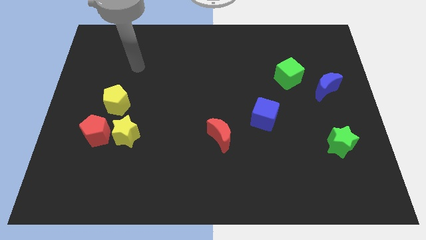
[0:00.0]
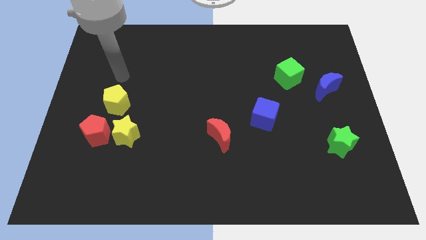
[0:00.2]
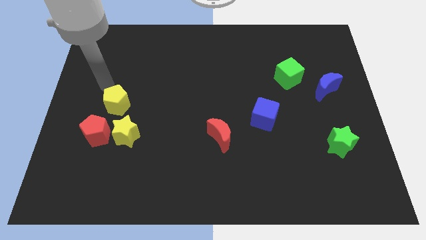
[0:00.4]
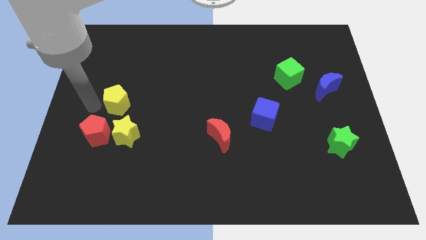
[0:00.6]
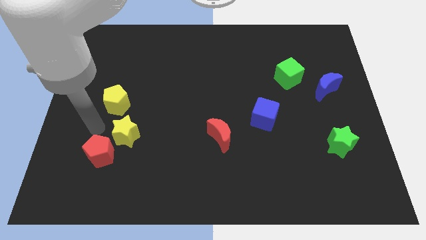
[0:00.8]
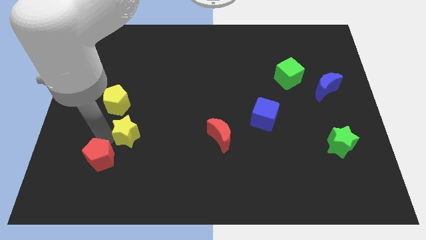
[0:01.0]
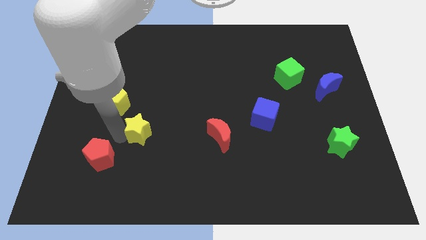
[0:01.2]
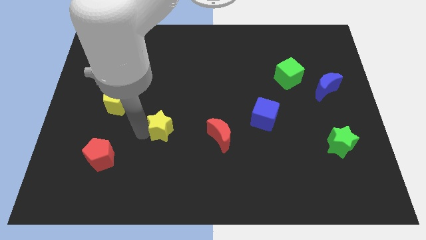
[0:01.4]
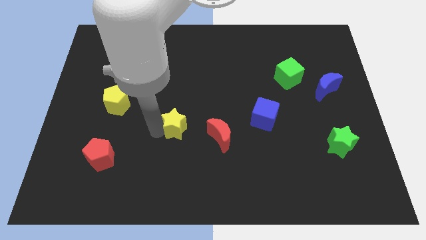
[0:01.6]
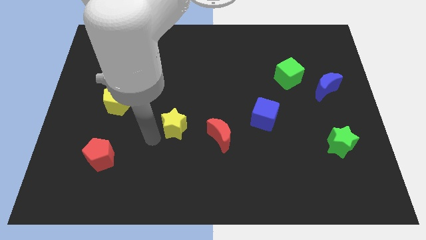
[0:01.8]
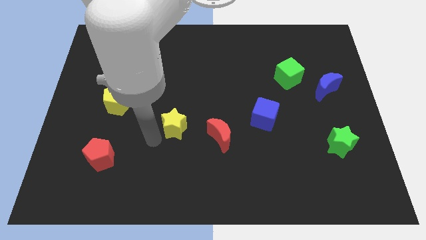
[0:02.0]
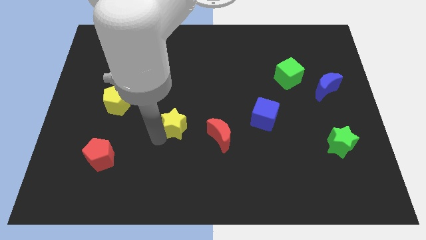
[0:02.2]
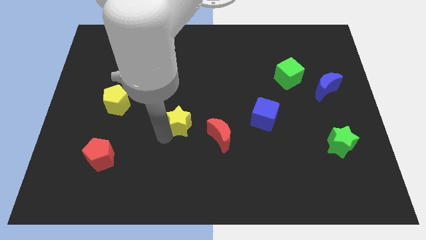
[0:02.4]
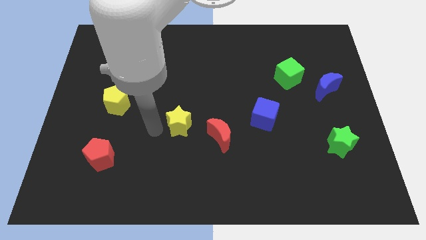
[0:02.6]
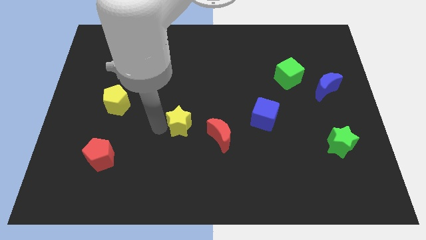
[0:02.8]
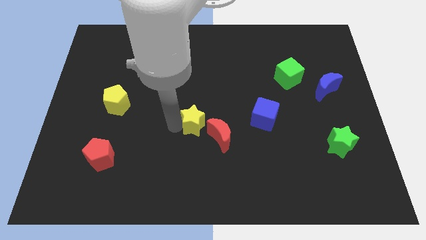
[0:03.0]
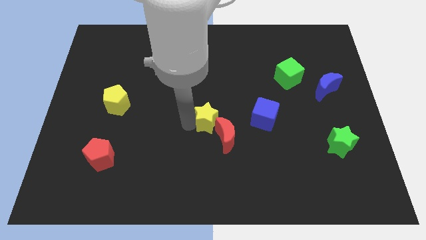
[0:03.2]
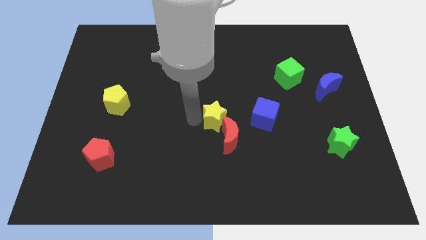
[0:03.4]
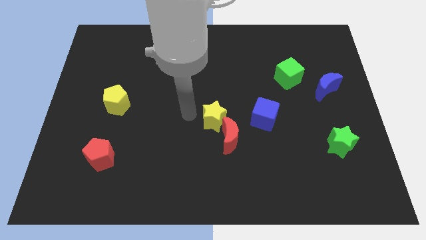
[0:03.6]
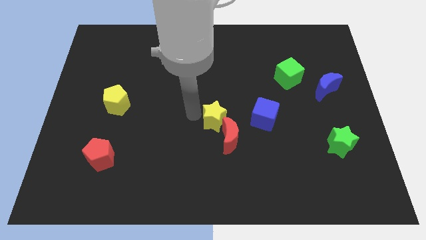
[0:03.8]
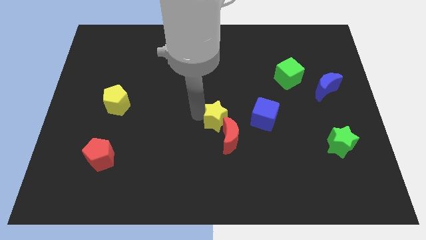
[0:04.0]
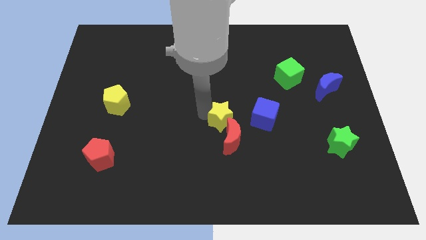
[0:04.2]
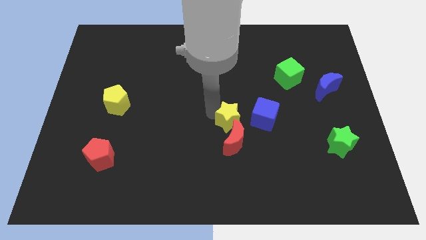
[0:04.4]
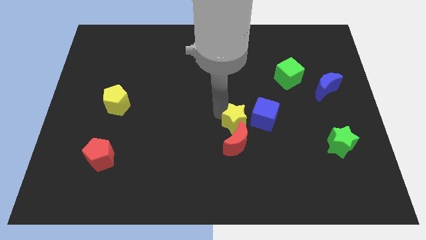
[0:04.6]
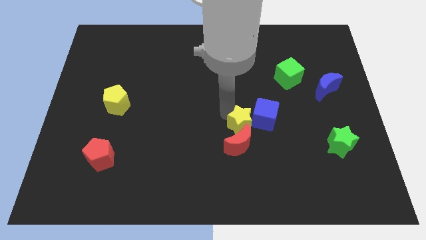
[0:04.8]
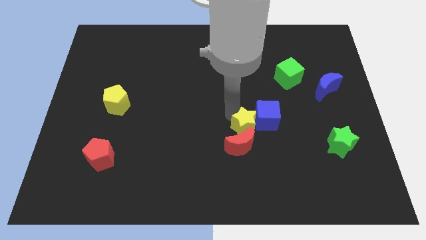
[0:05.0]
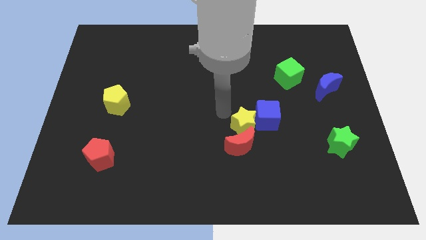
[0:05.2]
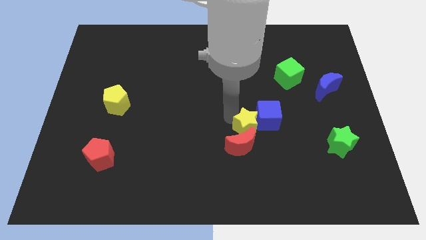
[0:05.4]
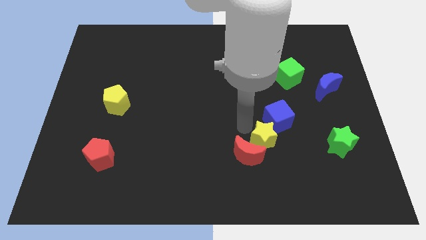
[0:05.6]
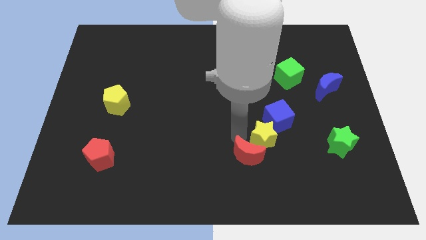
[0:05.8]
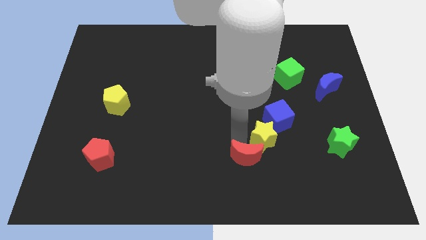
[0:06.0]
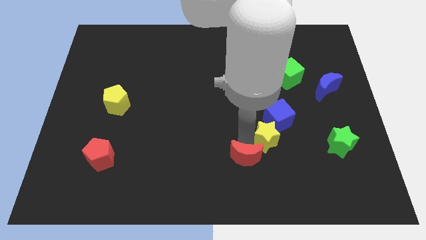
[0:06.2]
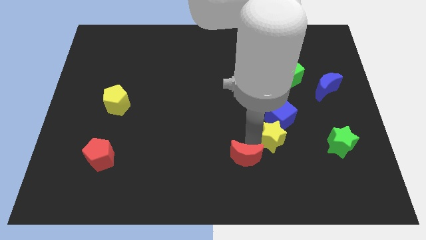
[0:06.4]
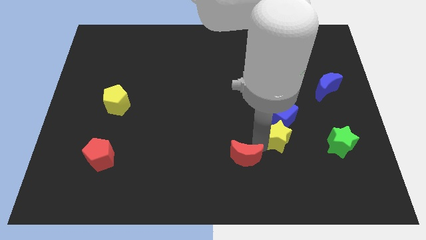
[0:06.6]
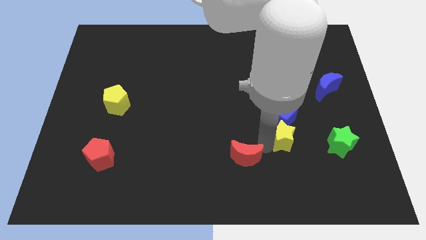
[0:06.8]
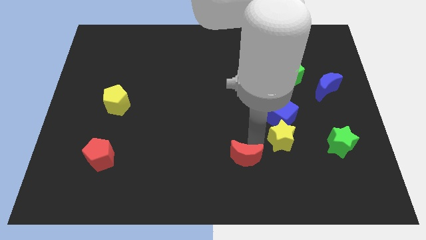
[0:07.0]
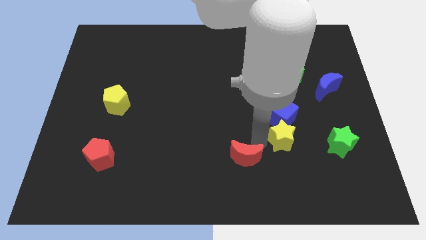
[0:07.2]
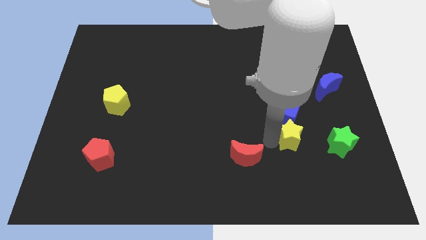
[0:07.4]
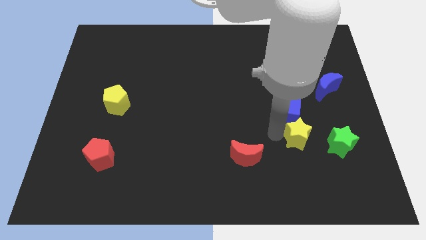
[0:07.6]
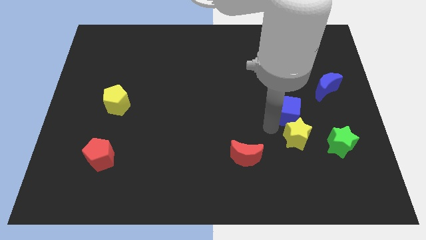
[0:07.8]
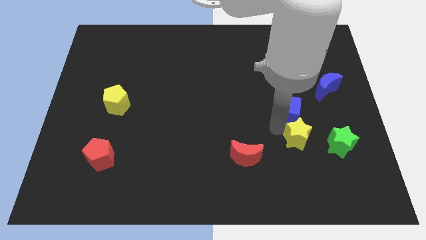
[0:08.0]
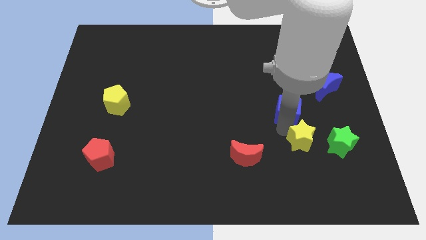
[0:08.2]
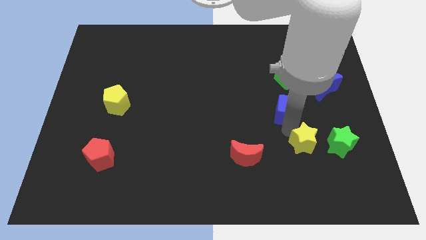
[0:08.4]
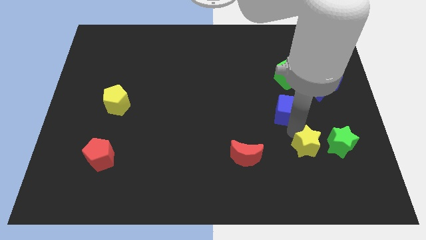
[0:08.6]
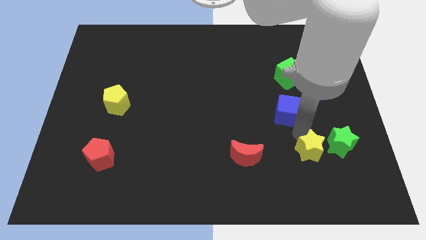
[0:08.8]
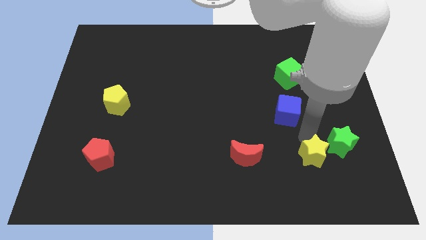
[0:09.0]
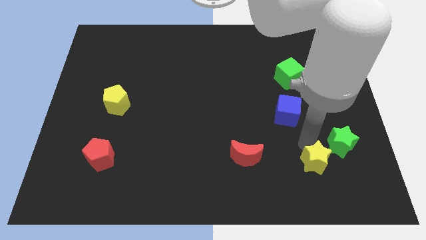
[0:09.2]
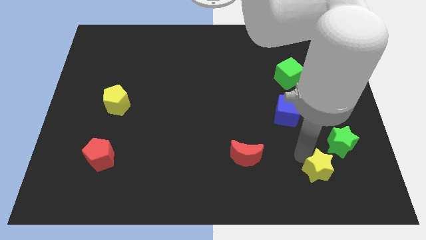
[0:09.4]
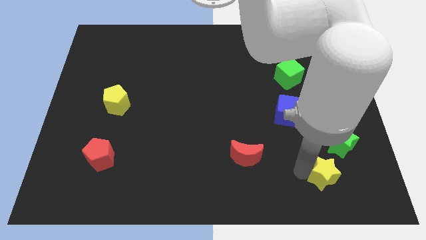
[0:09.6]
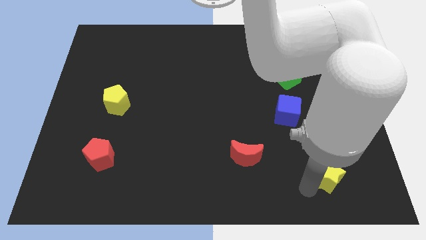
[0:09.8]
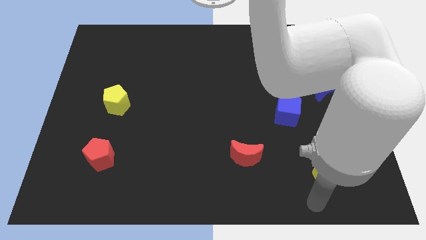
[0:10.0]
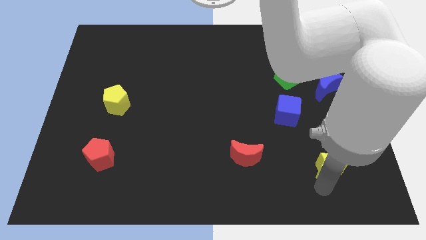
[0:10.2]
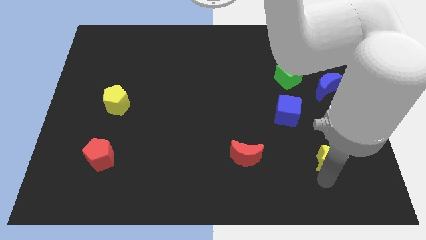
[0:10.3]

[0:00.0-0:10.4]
slide the yellow star towards the green star

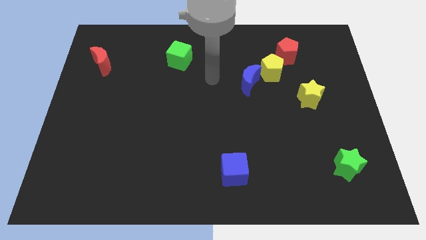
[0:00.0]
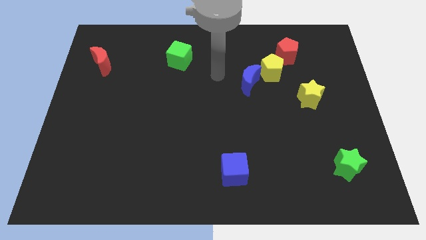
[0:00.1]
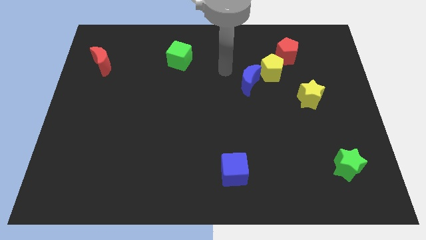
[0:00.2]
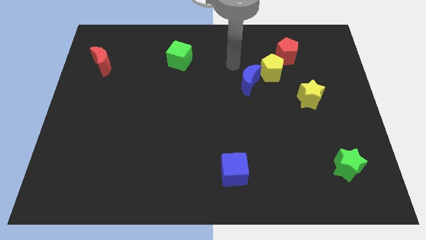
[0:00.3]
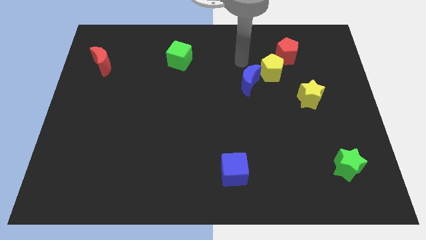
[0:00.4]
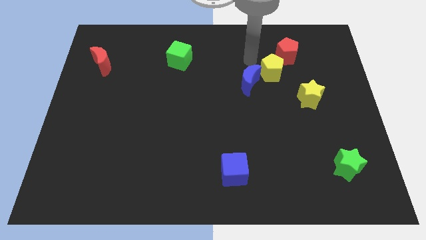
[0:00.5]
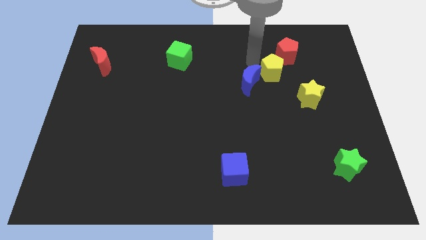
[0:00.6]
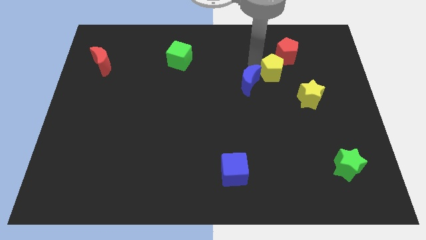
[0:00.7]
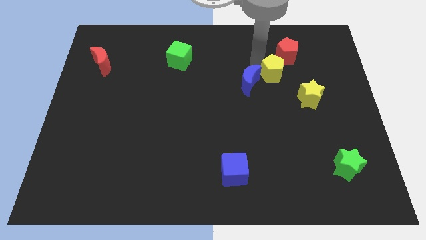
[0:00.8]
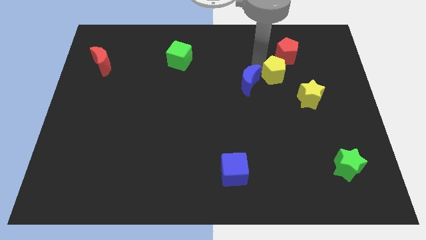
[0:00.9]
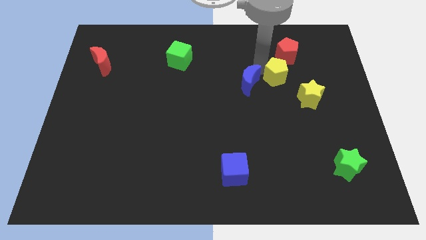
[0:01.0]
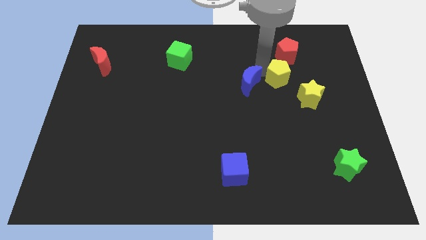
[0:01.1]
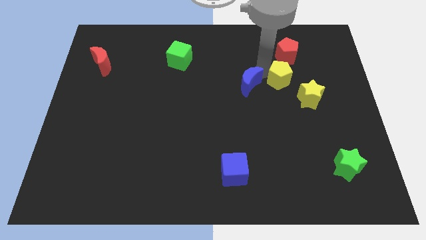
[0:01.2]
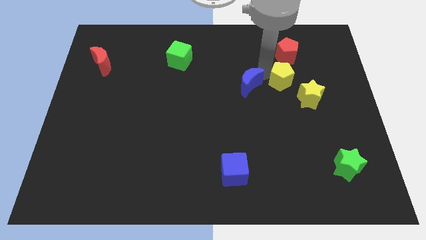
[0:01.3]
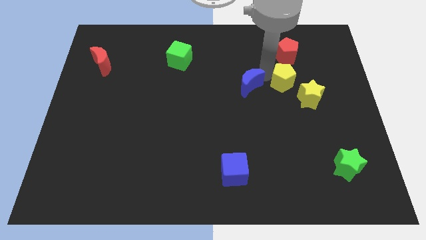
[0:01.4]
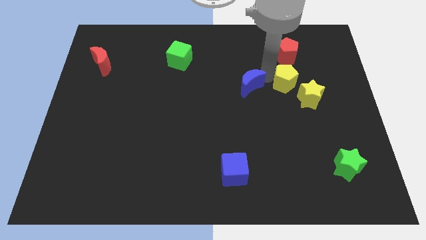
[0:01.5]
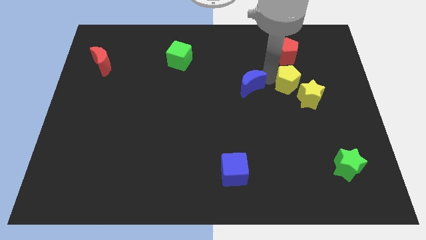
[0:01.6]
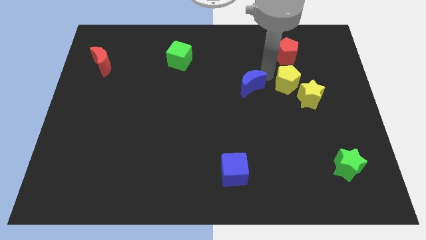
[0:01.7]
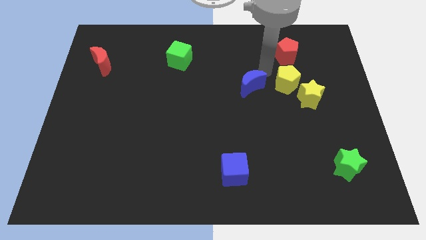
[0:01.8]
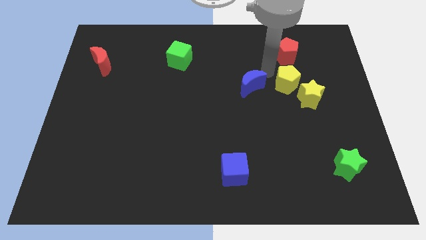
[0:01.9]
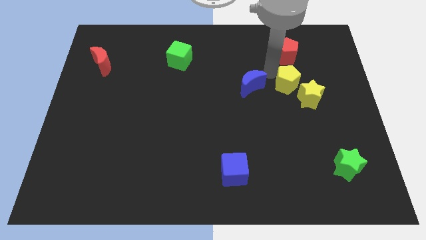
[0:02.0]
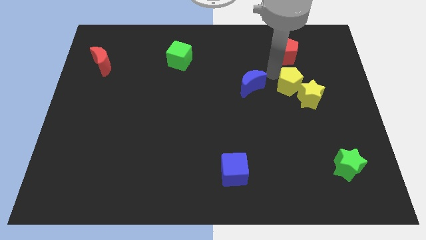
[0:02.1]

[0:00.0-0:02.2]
put the yellow pentagon next to the yellow star

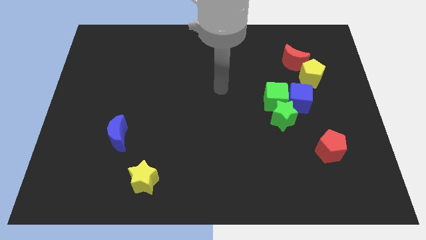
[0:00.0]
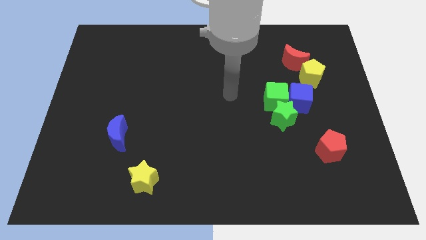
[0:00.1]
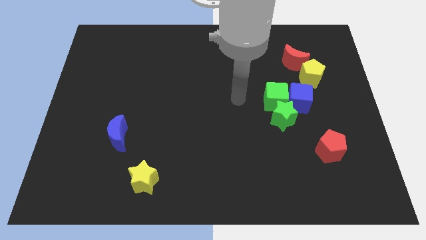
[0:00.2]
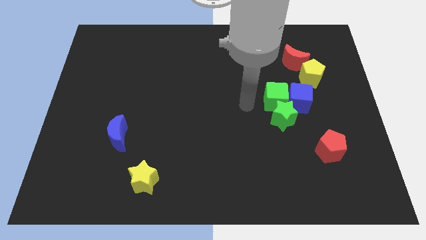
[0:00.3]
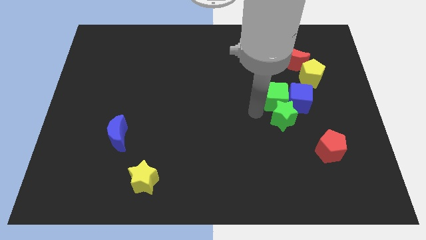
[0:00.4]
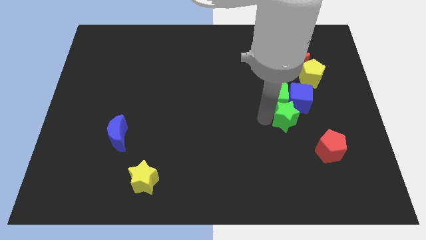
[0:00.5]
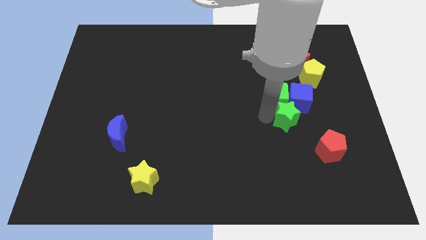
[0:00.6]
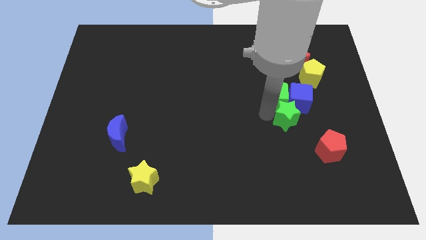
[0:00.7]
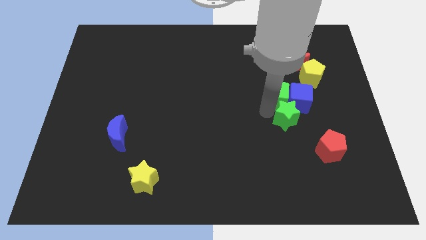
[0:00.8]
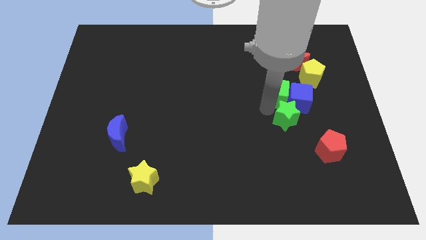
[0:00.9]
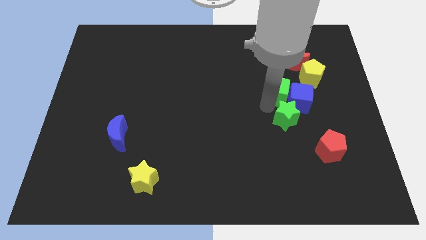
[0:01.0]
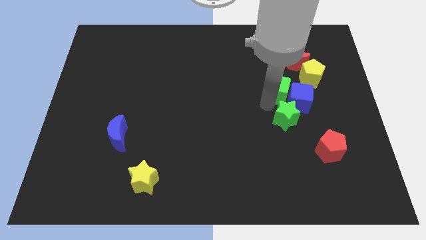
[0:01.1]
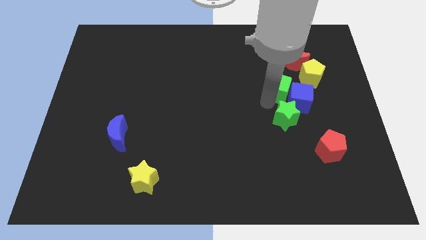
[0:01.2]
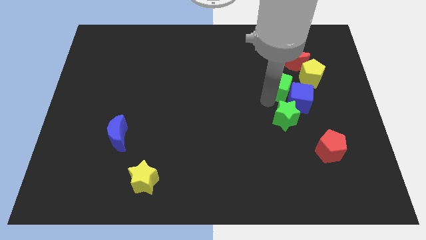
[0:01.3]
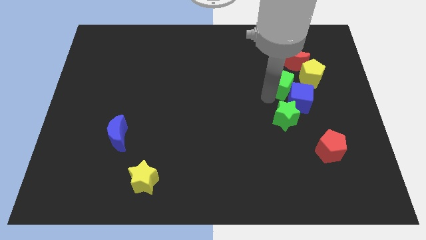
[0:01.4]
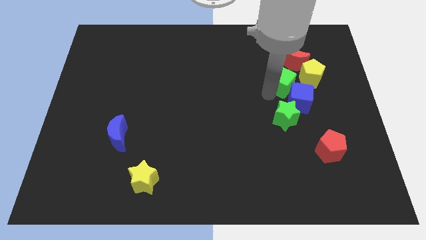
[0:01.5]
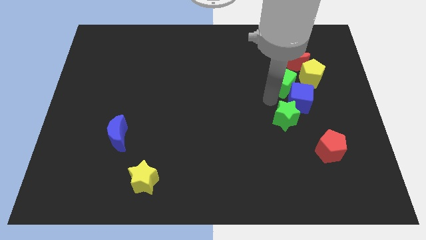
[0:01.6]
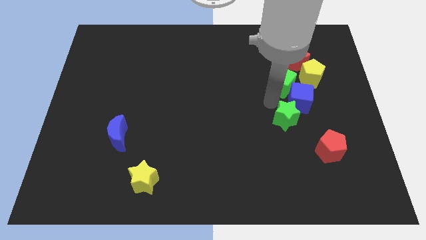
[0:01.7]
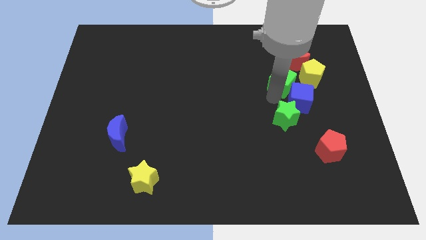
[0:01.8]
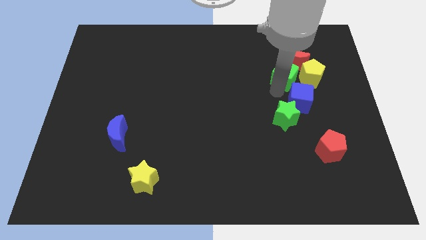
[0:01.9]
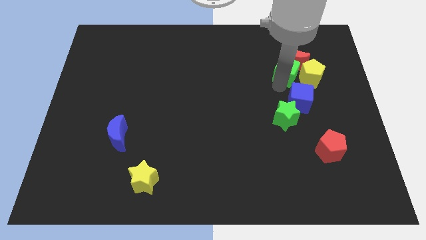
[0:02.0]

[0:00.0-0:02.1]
move the green cube towards the red moon
